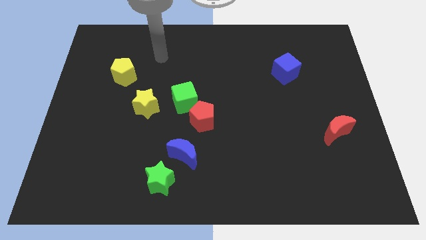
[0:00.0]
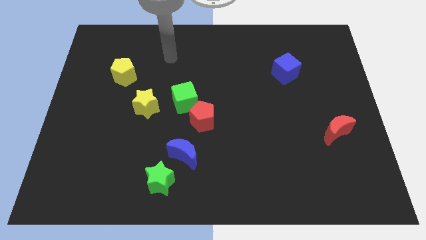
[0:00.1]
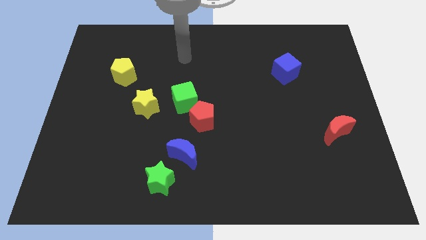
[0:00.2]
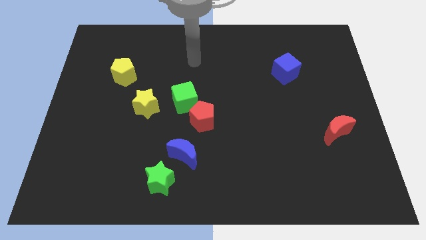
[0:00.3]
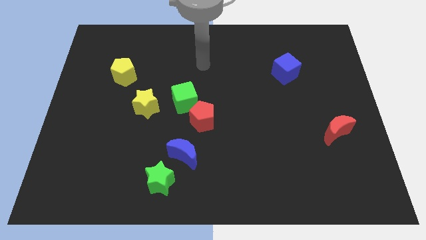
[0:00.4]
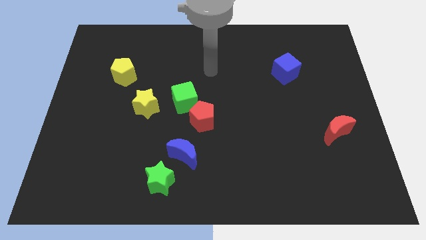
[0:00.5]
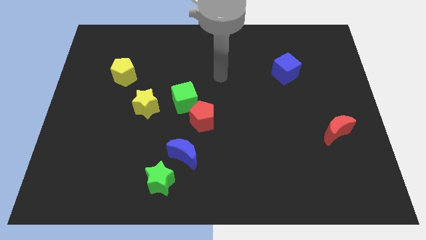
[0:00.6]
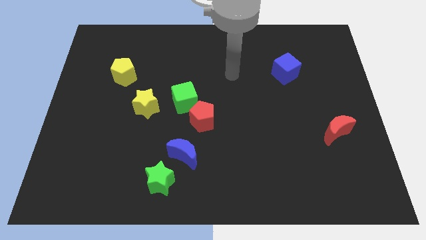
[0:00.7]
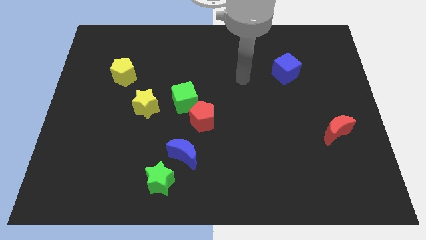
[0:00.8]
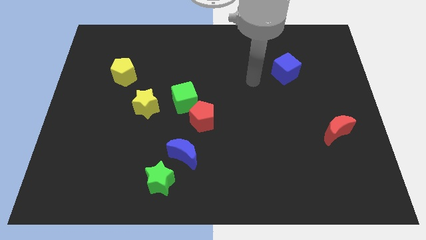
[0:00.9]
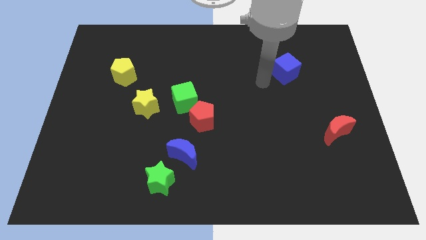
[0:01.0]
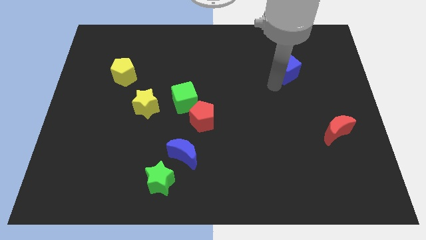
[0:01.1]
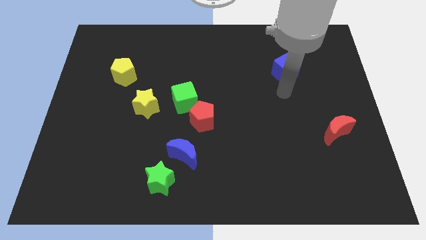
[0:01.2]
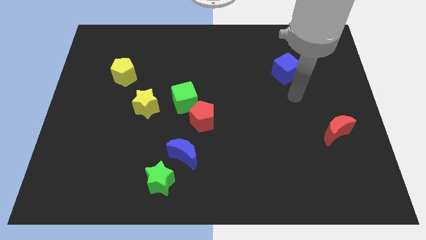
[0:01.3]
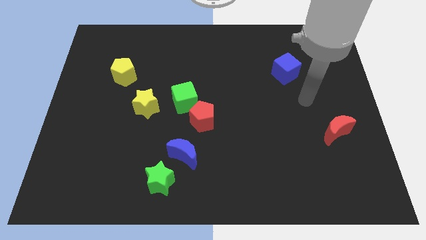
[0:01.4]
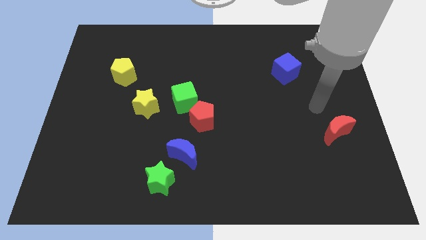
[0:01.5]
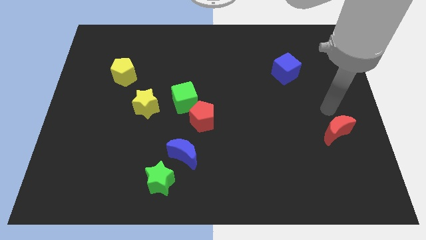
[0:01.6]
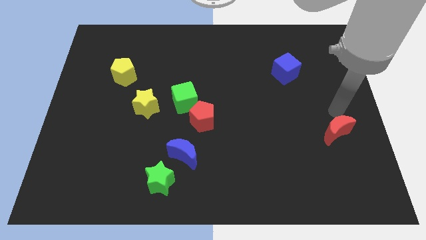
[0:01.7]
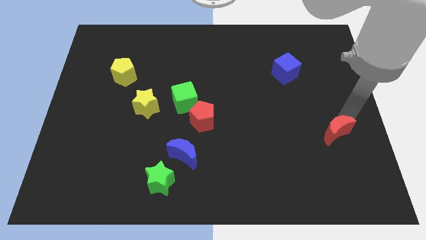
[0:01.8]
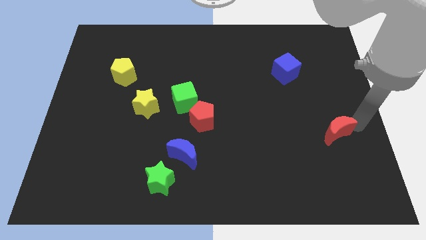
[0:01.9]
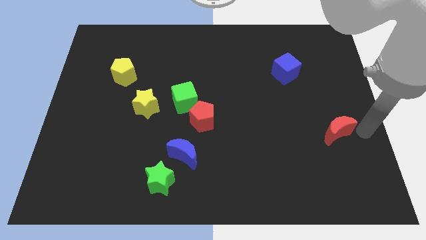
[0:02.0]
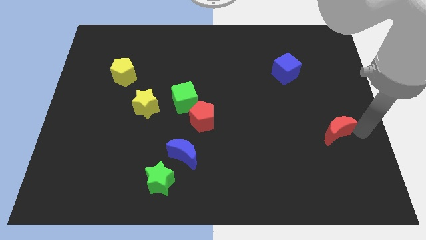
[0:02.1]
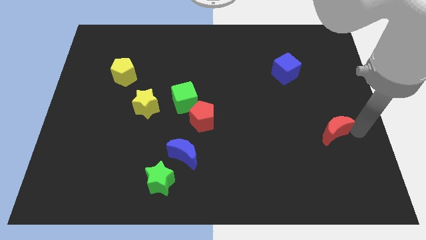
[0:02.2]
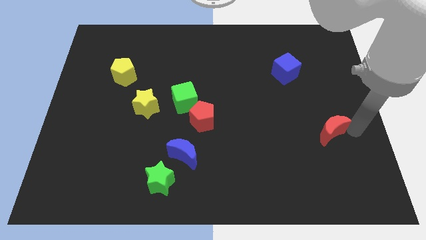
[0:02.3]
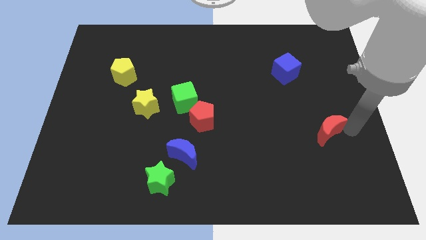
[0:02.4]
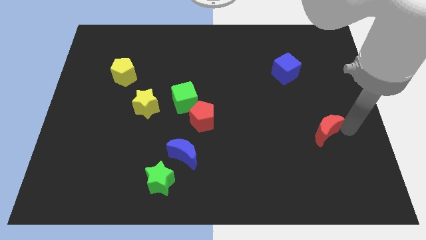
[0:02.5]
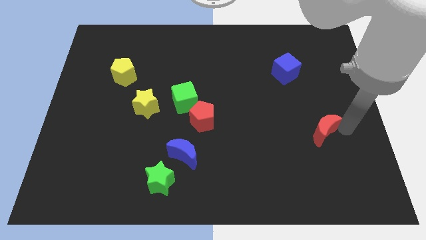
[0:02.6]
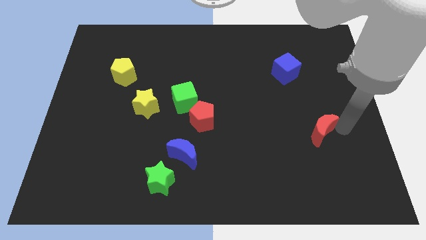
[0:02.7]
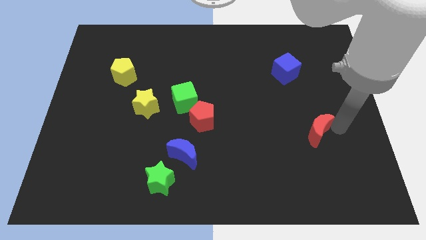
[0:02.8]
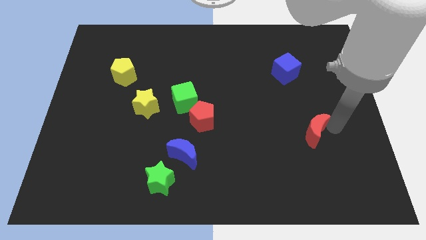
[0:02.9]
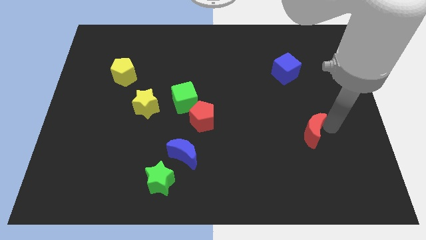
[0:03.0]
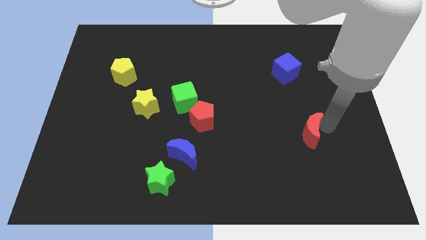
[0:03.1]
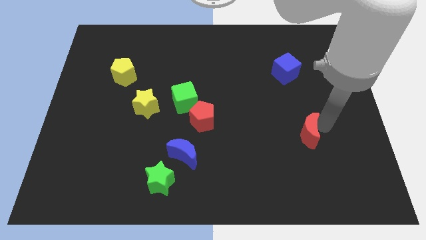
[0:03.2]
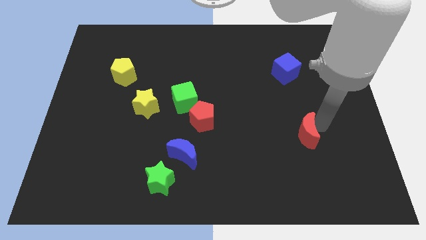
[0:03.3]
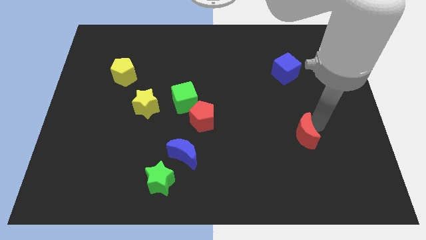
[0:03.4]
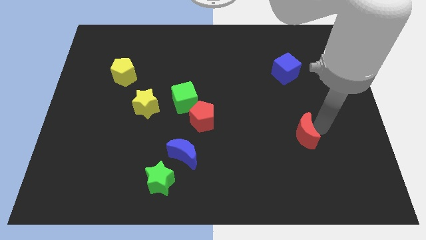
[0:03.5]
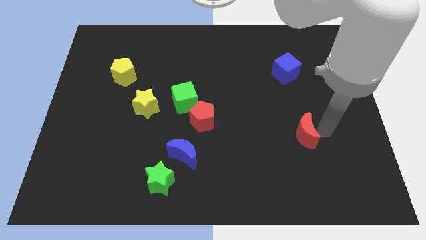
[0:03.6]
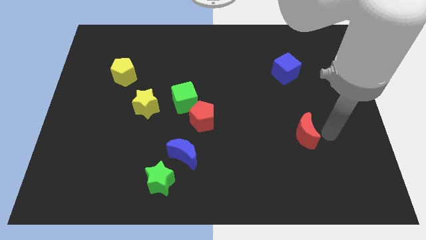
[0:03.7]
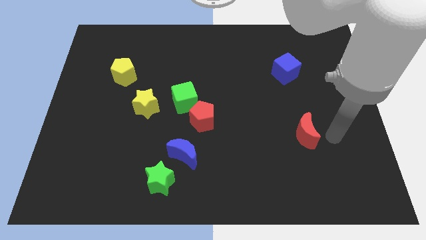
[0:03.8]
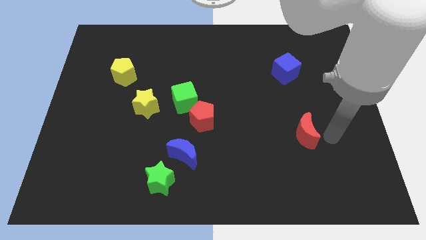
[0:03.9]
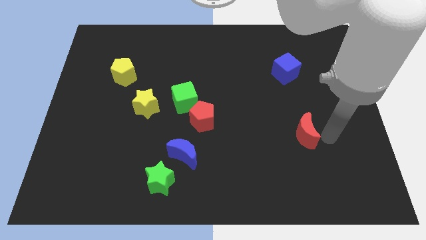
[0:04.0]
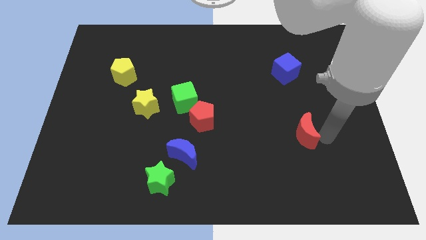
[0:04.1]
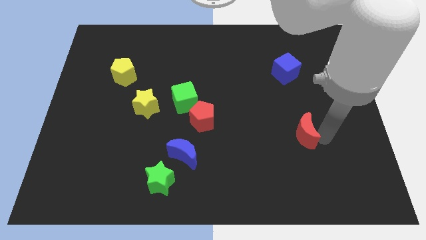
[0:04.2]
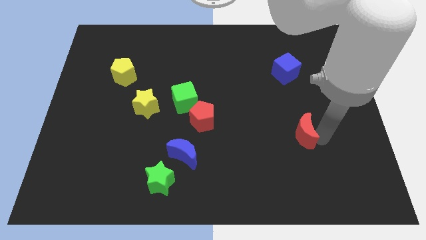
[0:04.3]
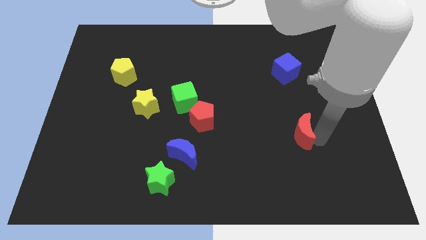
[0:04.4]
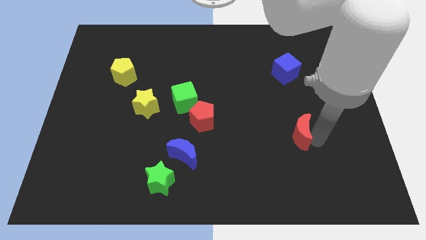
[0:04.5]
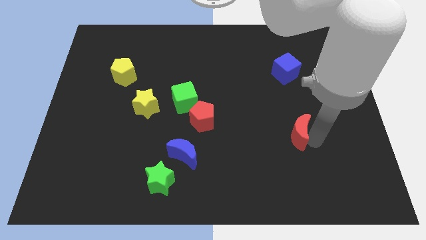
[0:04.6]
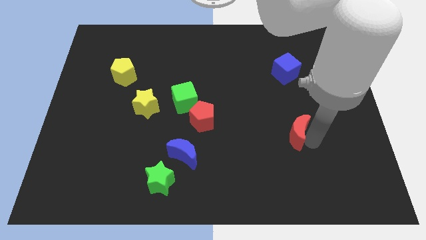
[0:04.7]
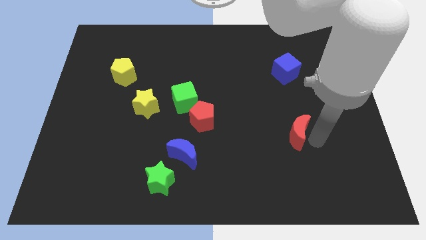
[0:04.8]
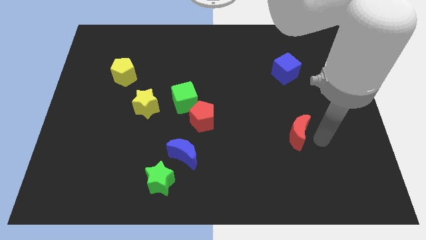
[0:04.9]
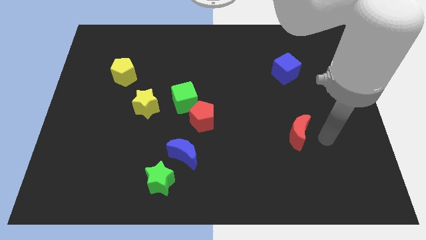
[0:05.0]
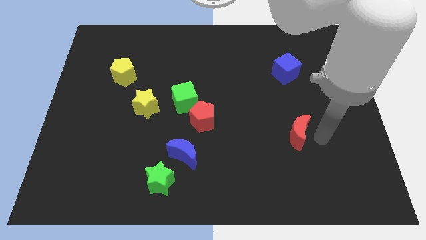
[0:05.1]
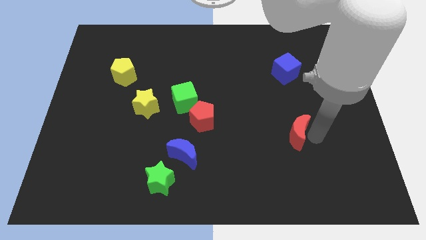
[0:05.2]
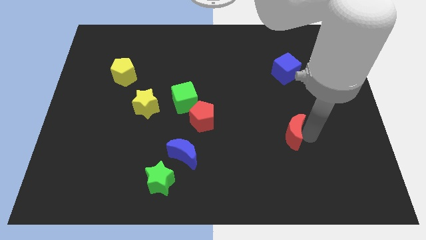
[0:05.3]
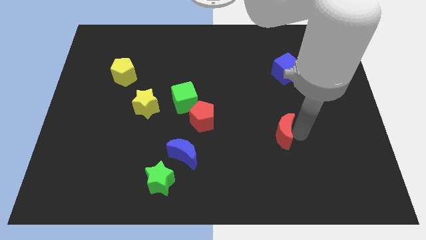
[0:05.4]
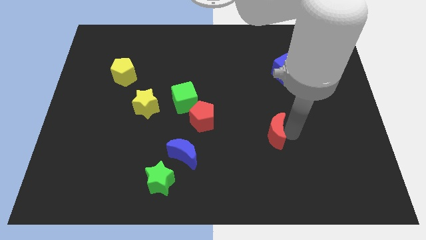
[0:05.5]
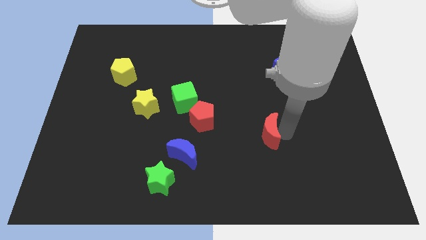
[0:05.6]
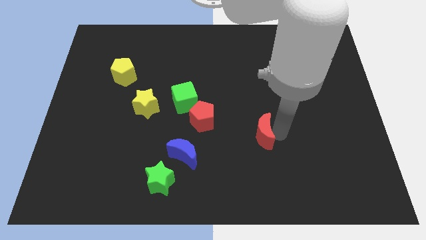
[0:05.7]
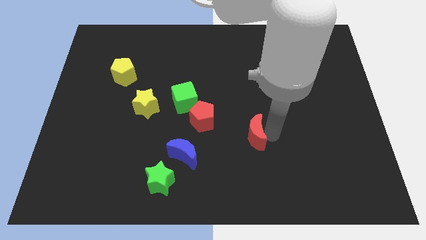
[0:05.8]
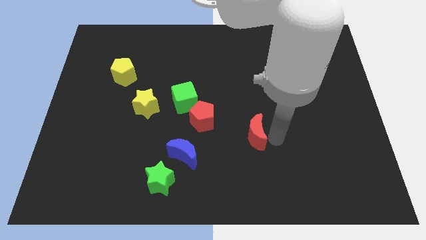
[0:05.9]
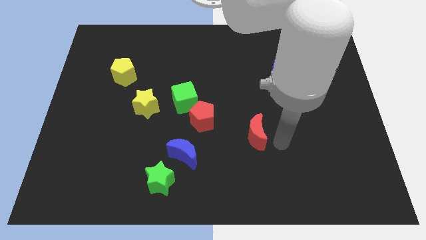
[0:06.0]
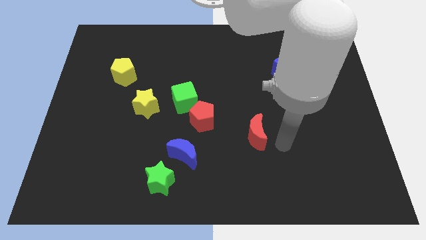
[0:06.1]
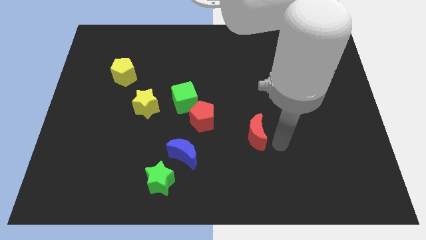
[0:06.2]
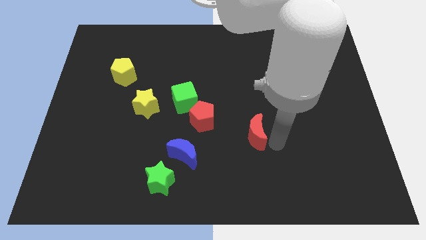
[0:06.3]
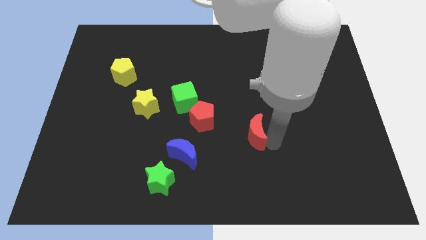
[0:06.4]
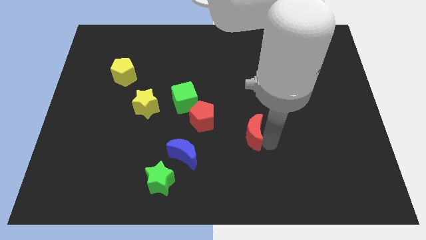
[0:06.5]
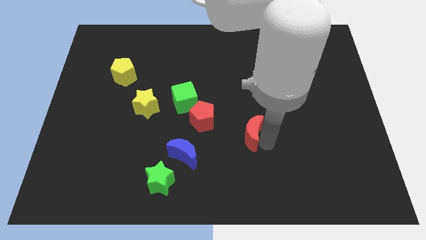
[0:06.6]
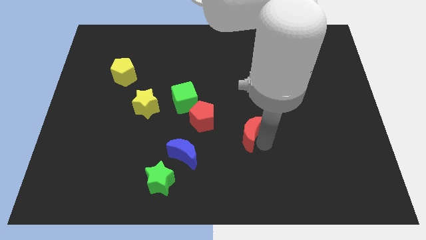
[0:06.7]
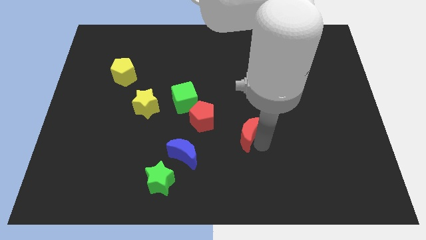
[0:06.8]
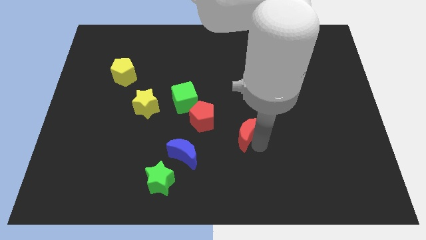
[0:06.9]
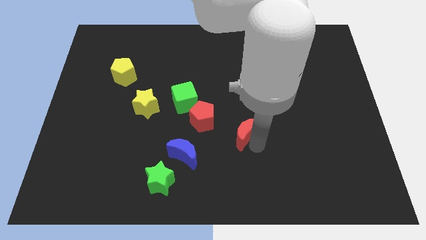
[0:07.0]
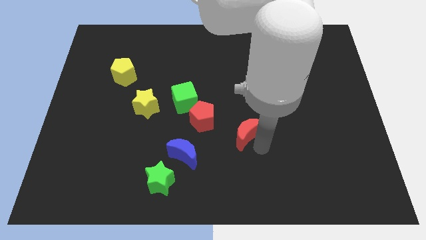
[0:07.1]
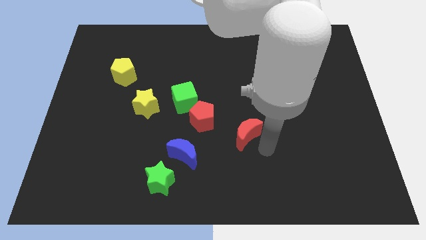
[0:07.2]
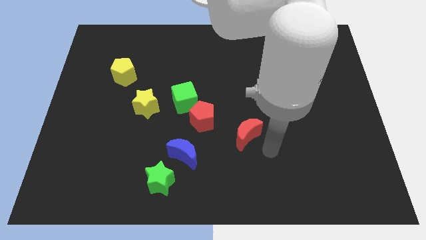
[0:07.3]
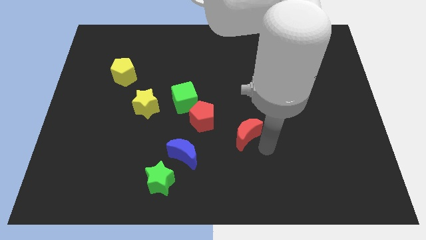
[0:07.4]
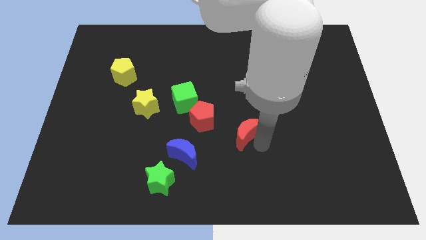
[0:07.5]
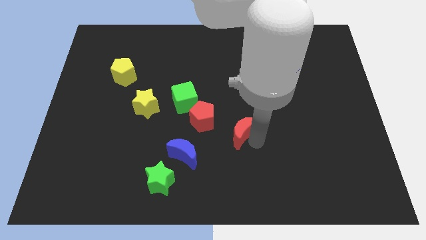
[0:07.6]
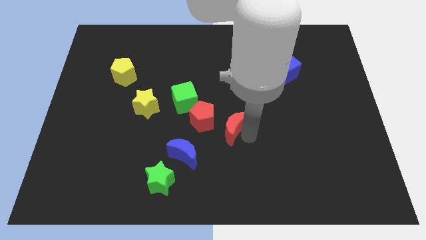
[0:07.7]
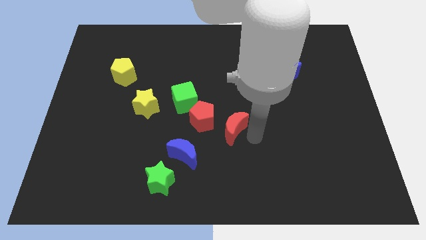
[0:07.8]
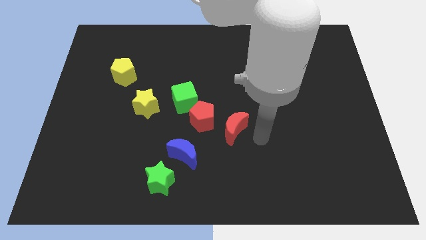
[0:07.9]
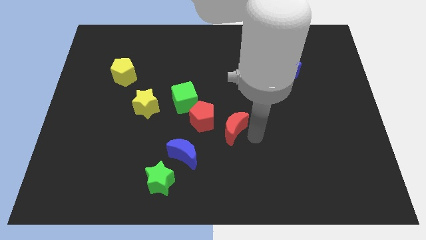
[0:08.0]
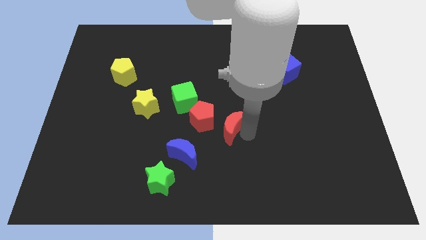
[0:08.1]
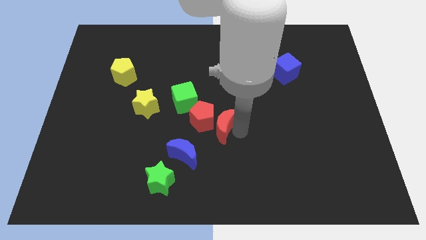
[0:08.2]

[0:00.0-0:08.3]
move the red moon next to the red pentagon
